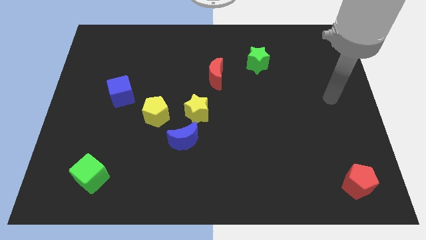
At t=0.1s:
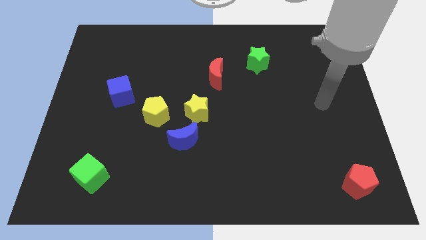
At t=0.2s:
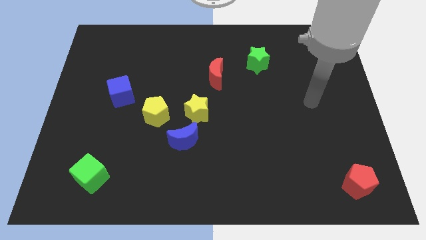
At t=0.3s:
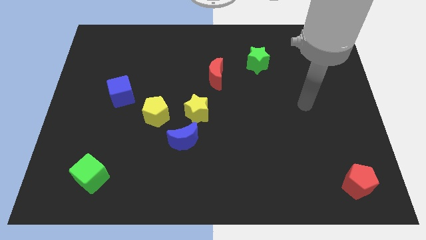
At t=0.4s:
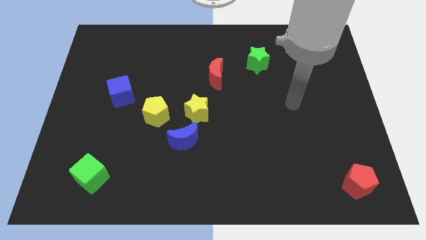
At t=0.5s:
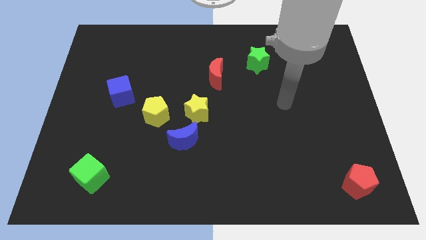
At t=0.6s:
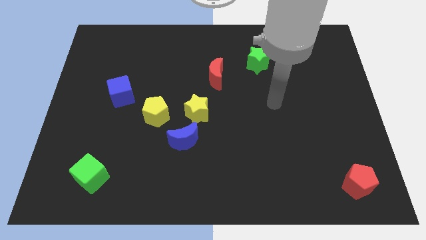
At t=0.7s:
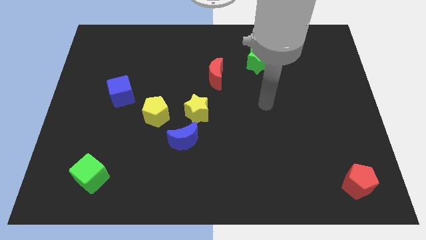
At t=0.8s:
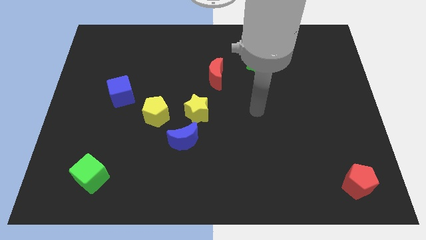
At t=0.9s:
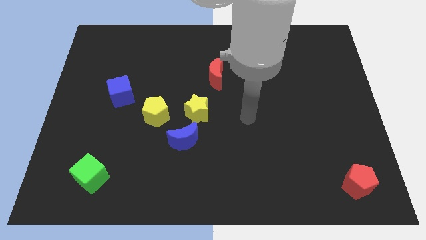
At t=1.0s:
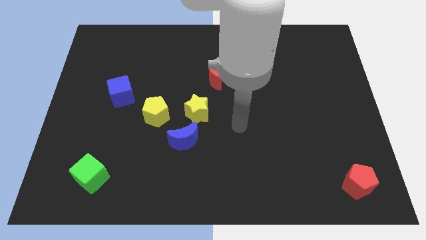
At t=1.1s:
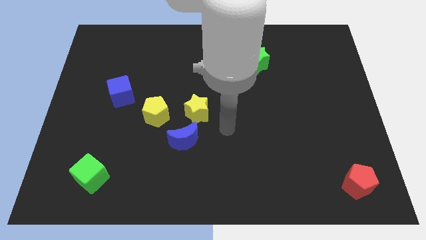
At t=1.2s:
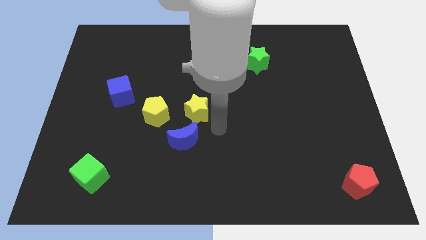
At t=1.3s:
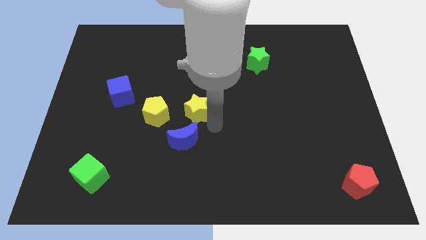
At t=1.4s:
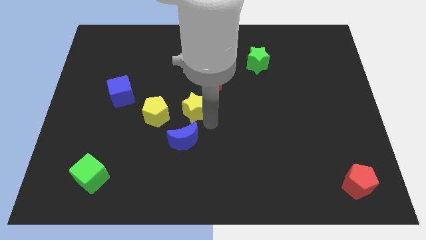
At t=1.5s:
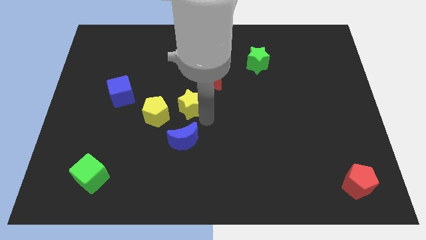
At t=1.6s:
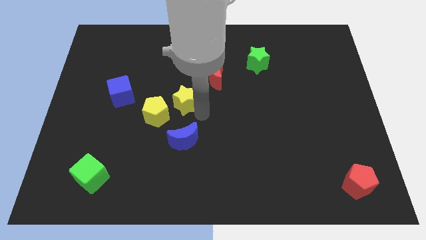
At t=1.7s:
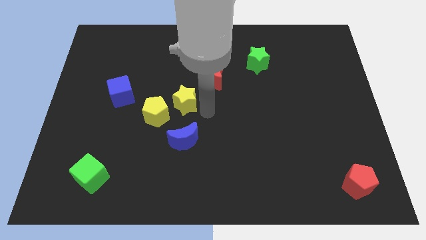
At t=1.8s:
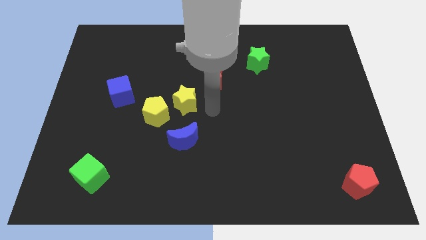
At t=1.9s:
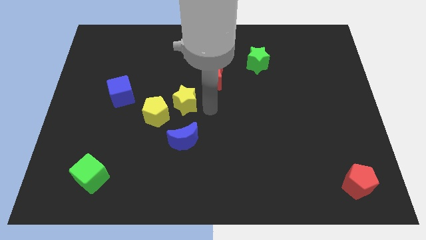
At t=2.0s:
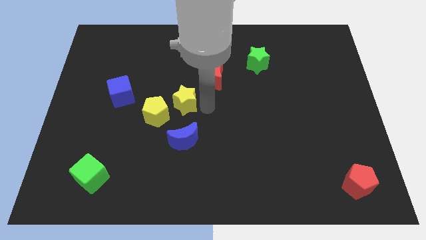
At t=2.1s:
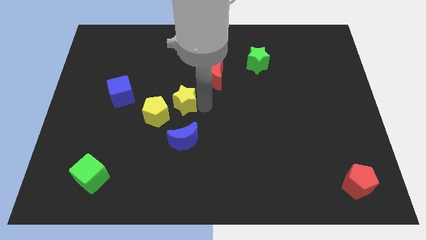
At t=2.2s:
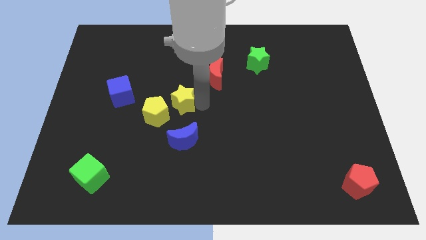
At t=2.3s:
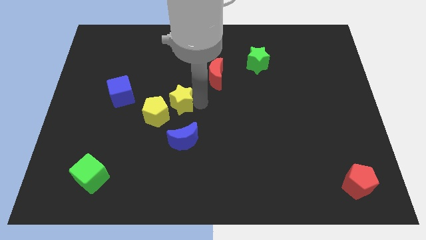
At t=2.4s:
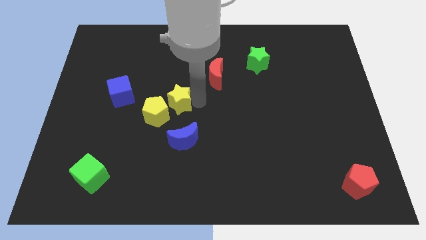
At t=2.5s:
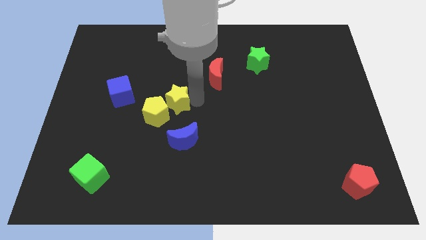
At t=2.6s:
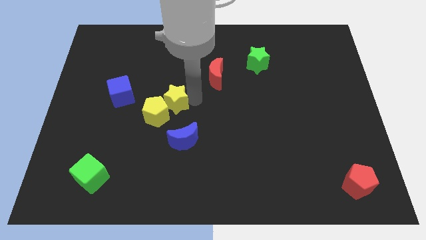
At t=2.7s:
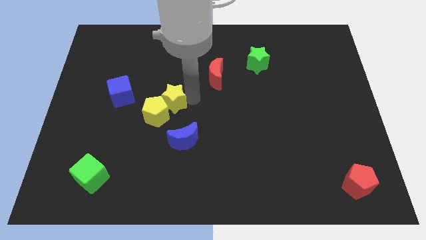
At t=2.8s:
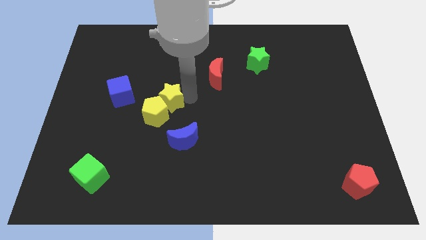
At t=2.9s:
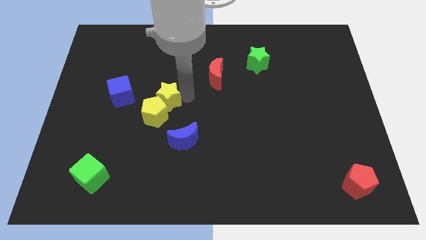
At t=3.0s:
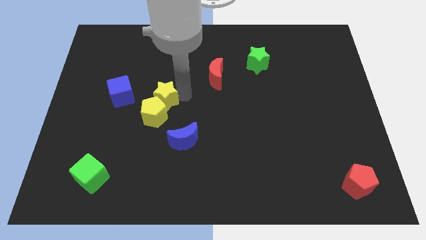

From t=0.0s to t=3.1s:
slide the yellow star somewhat to the left

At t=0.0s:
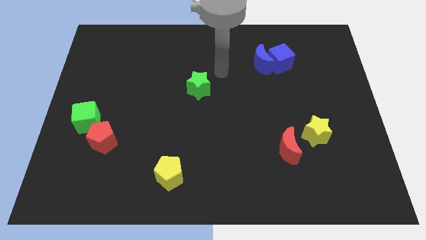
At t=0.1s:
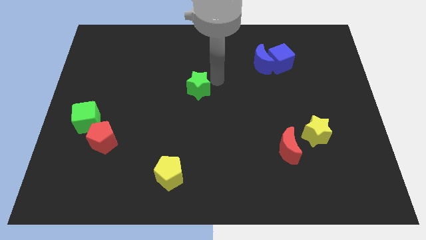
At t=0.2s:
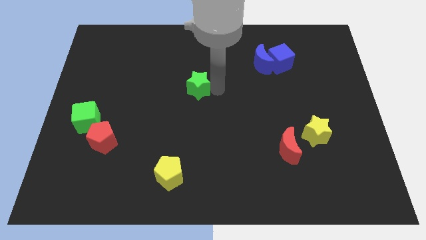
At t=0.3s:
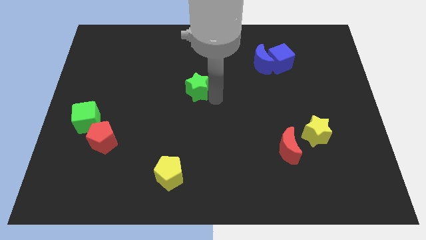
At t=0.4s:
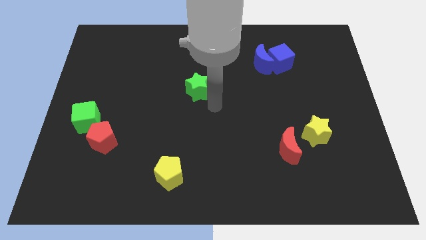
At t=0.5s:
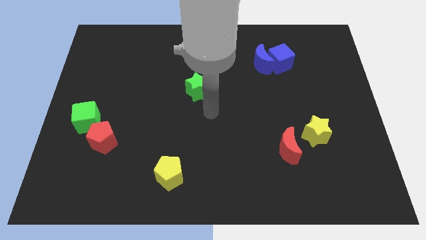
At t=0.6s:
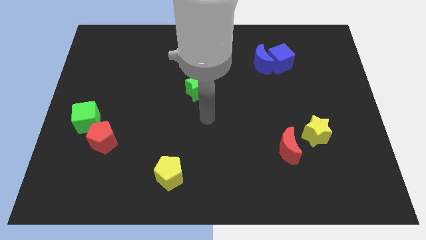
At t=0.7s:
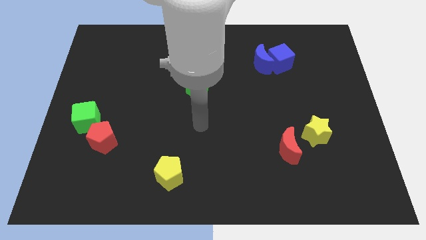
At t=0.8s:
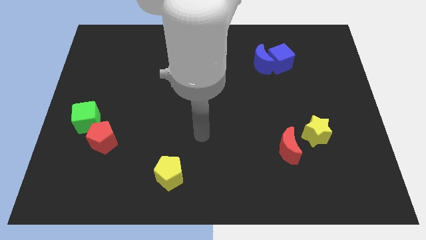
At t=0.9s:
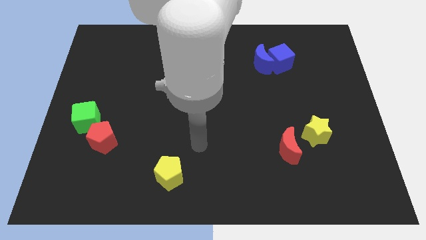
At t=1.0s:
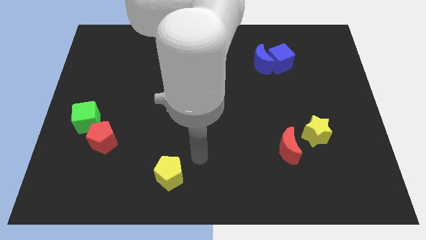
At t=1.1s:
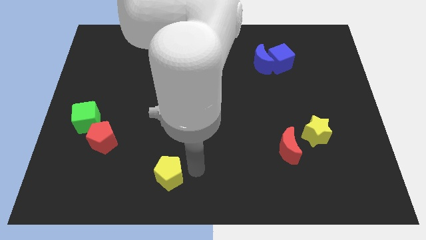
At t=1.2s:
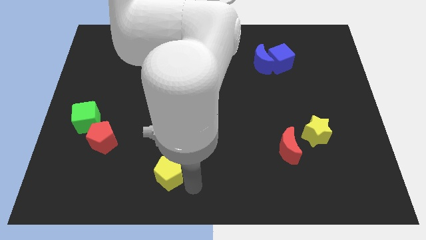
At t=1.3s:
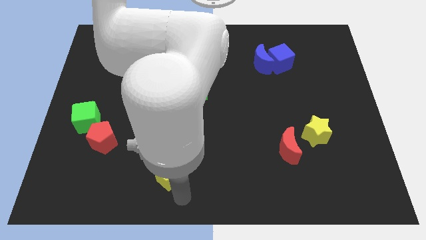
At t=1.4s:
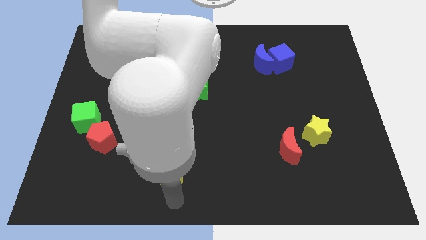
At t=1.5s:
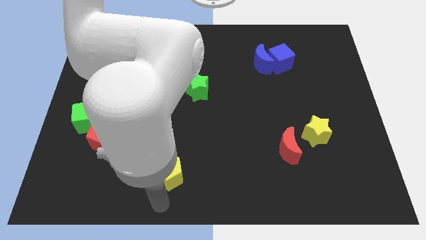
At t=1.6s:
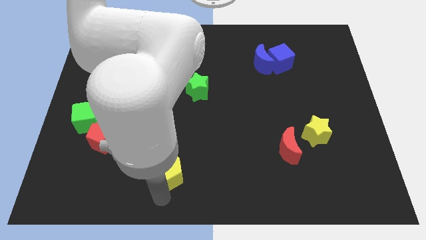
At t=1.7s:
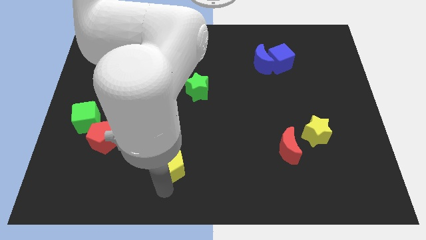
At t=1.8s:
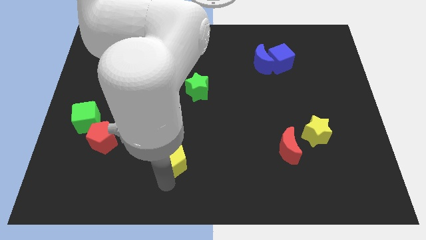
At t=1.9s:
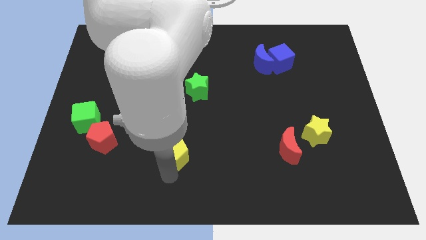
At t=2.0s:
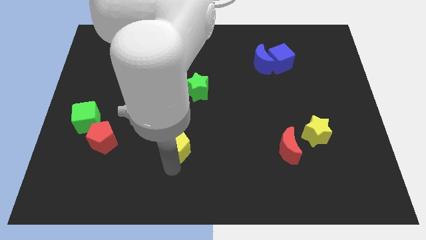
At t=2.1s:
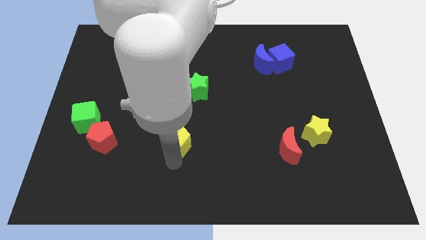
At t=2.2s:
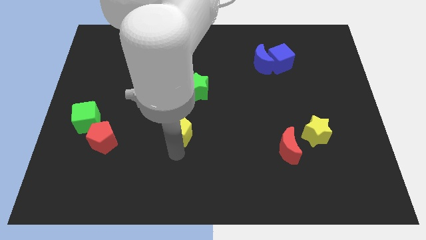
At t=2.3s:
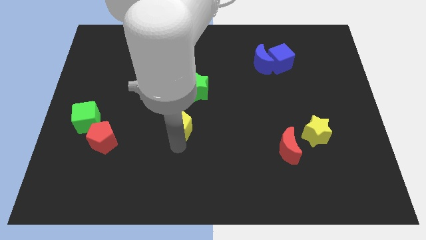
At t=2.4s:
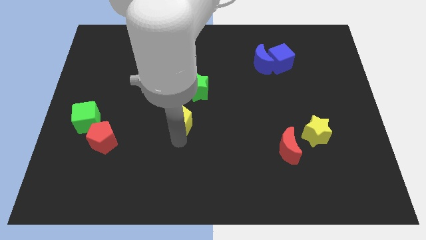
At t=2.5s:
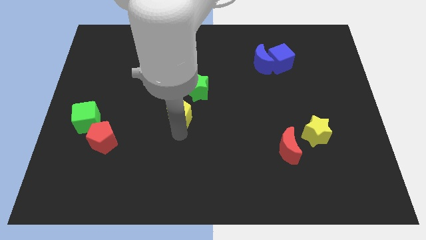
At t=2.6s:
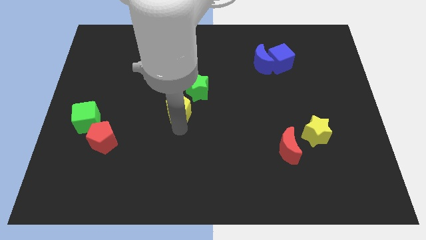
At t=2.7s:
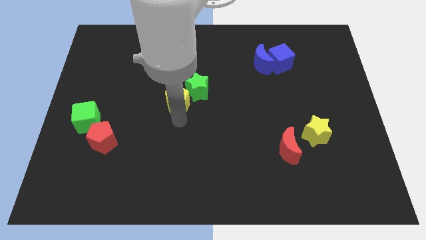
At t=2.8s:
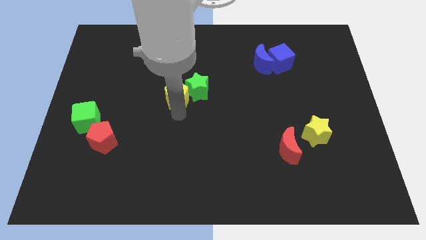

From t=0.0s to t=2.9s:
push the yellow pentagon up

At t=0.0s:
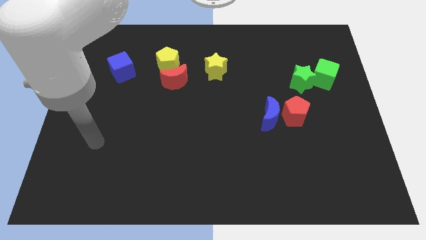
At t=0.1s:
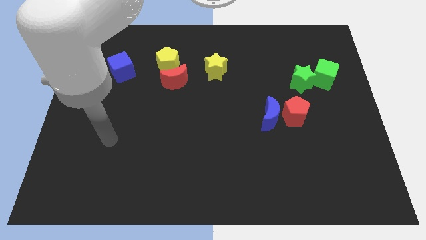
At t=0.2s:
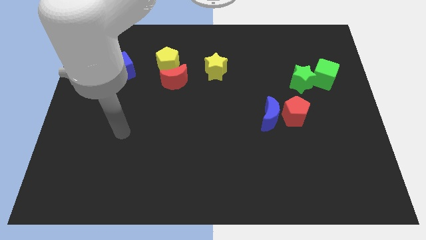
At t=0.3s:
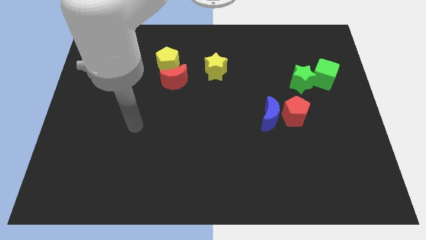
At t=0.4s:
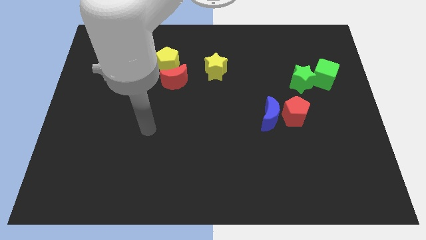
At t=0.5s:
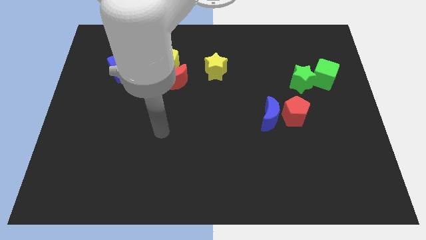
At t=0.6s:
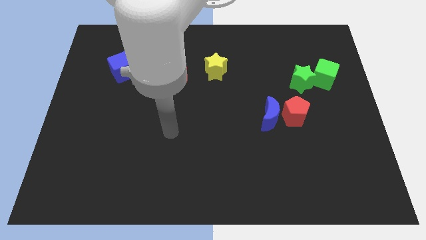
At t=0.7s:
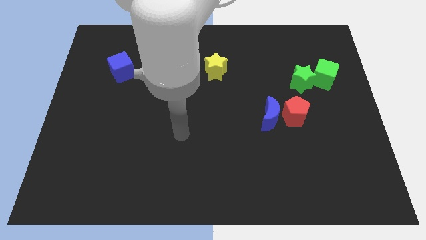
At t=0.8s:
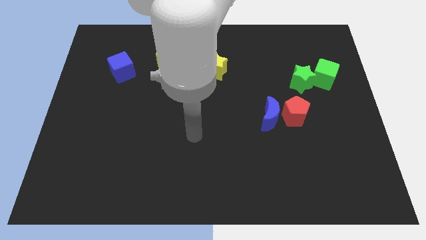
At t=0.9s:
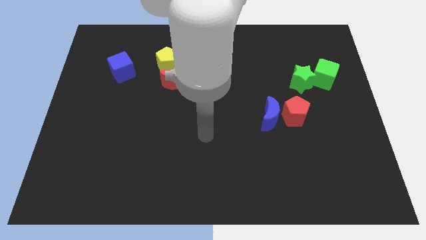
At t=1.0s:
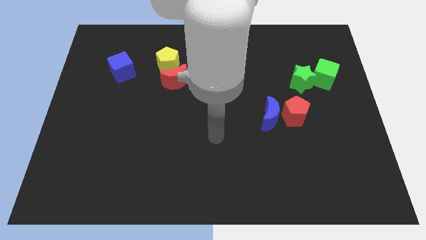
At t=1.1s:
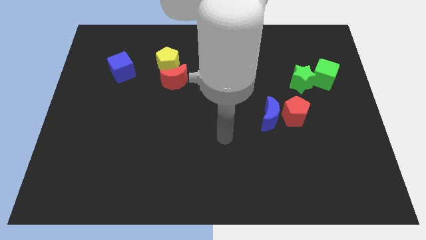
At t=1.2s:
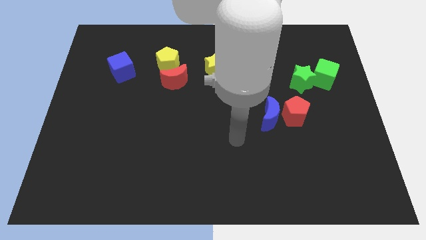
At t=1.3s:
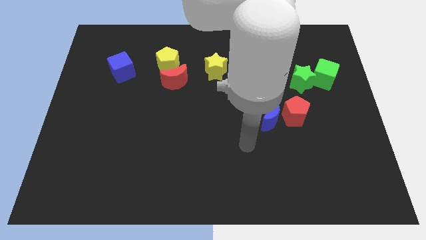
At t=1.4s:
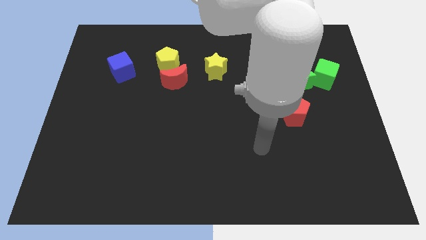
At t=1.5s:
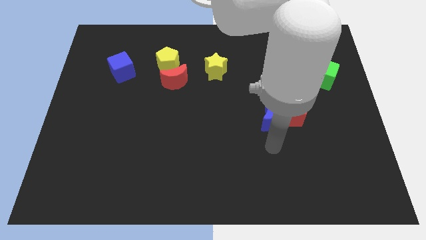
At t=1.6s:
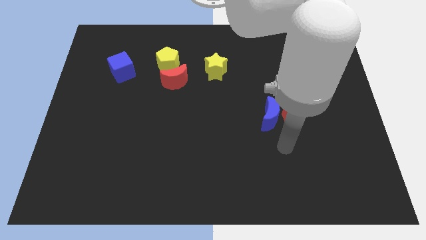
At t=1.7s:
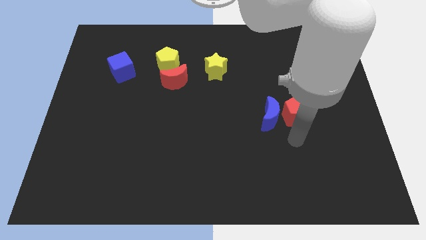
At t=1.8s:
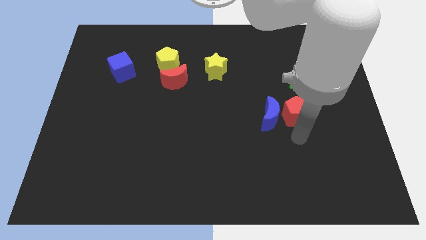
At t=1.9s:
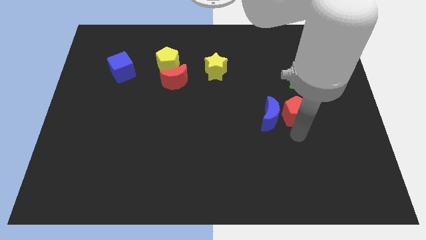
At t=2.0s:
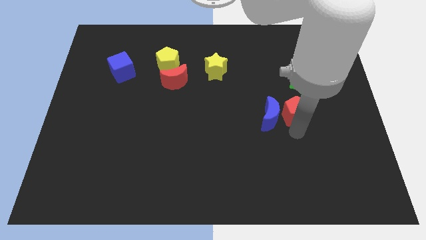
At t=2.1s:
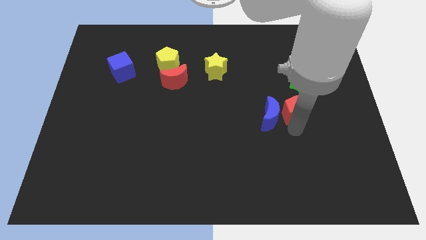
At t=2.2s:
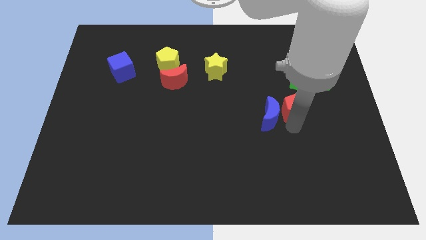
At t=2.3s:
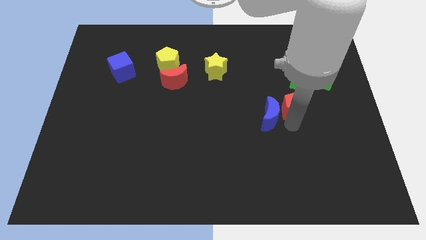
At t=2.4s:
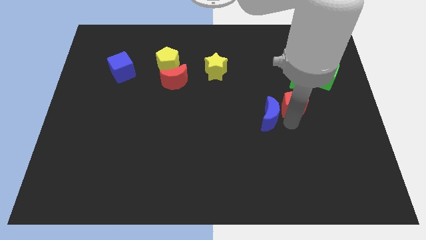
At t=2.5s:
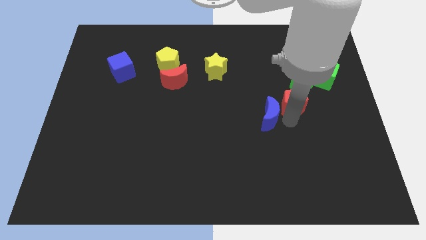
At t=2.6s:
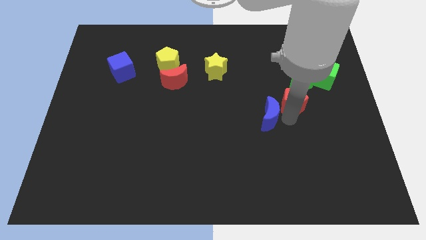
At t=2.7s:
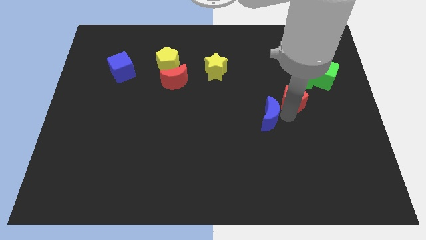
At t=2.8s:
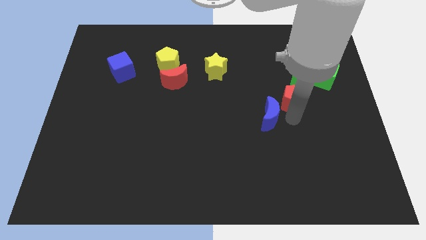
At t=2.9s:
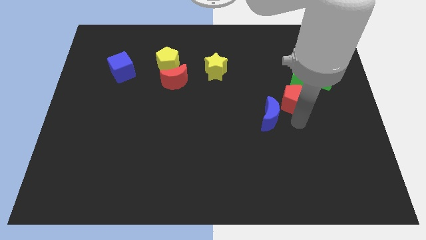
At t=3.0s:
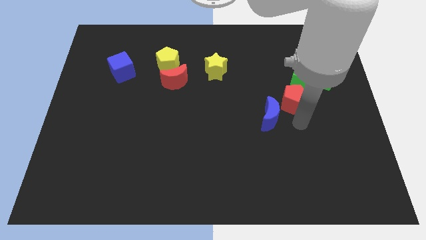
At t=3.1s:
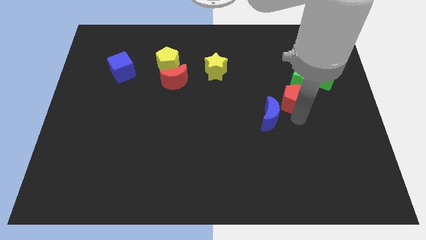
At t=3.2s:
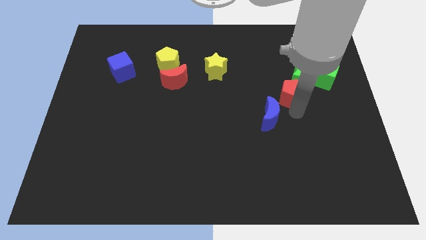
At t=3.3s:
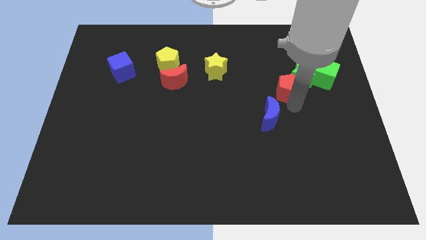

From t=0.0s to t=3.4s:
slide the red pentagon a little bit up
